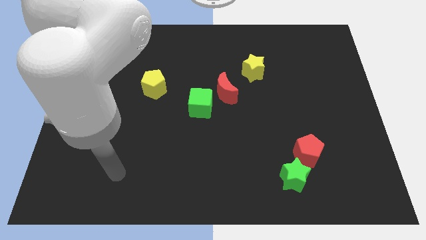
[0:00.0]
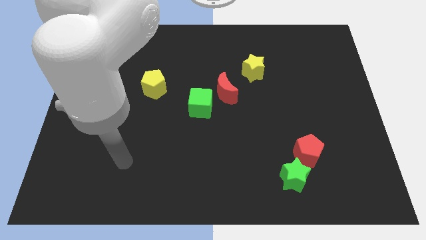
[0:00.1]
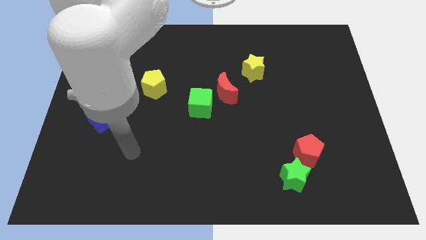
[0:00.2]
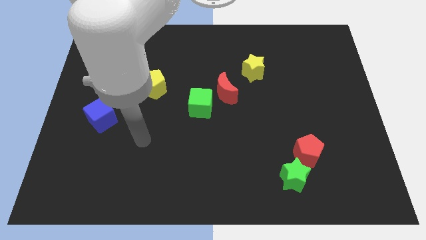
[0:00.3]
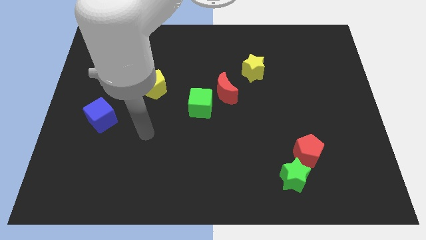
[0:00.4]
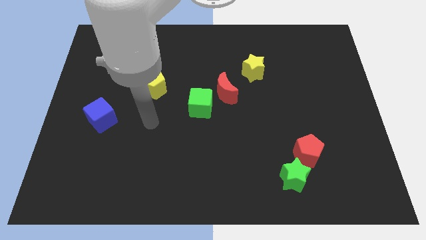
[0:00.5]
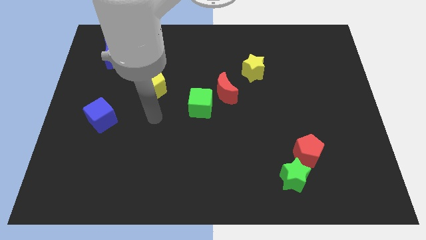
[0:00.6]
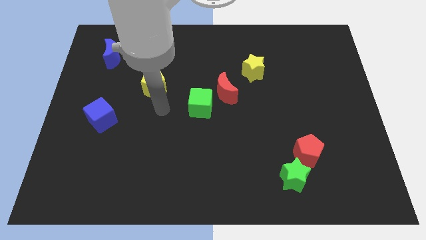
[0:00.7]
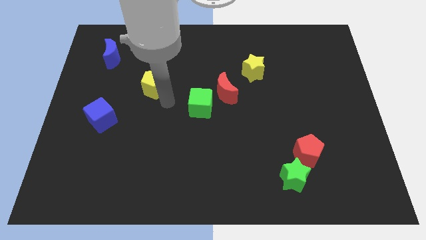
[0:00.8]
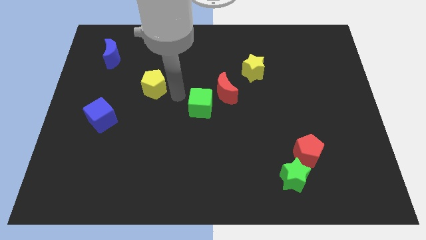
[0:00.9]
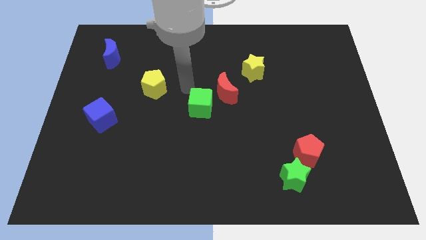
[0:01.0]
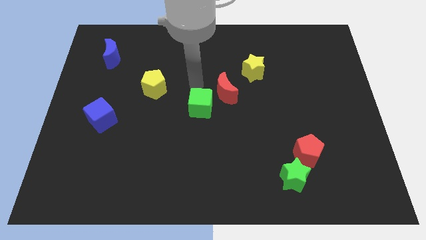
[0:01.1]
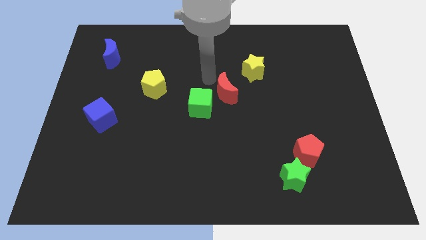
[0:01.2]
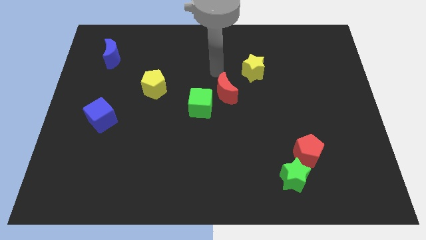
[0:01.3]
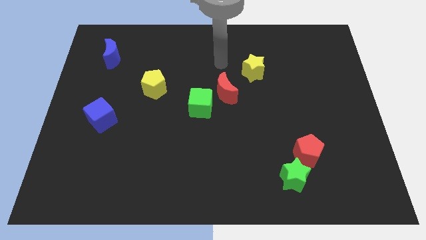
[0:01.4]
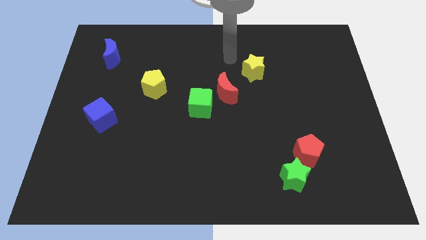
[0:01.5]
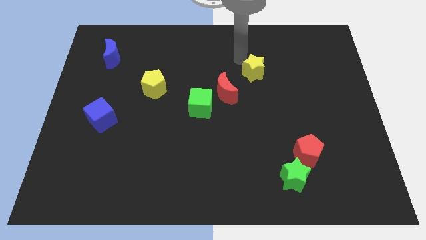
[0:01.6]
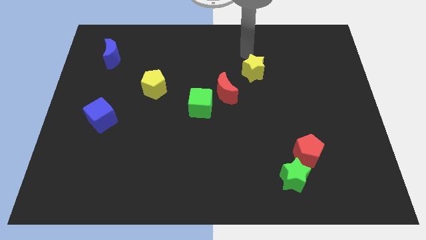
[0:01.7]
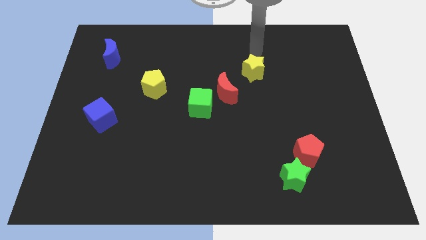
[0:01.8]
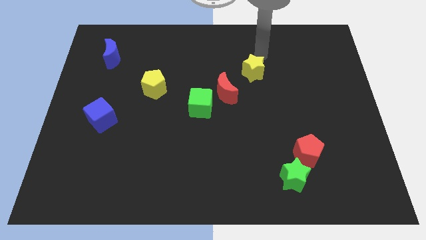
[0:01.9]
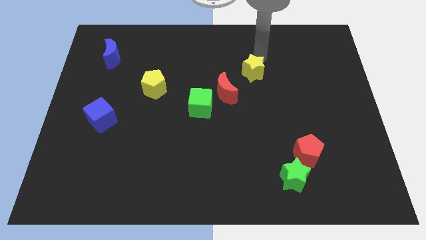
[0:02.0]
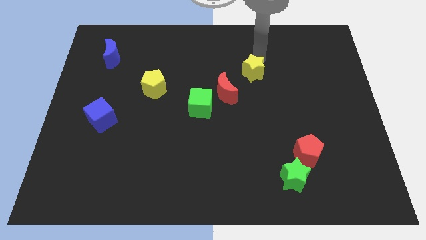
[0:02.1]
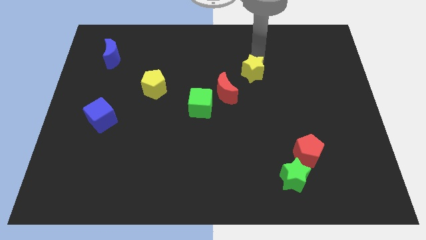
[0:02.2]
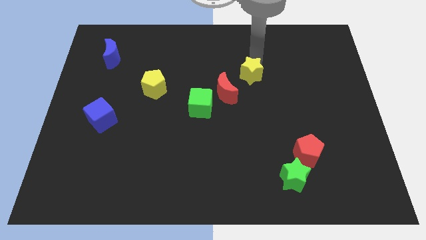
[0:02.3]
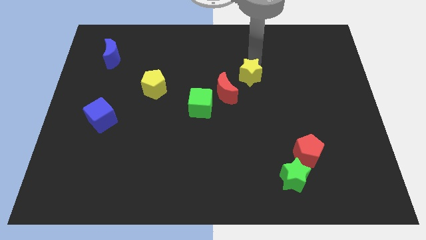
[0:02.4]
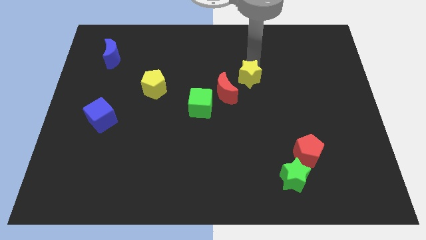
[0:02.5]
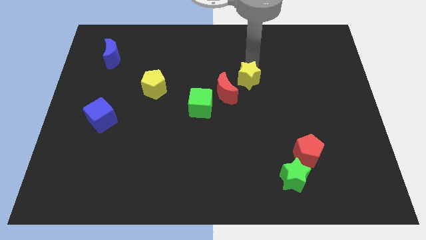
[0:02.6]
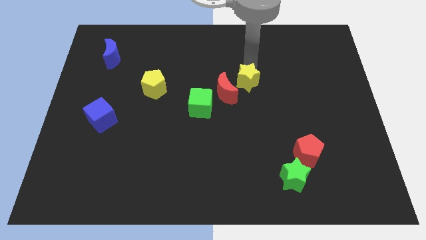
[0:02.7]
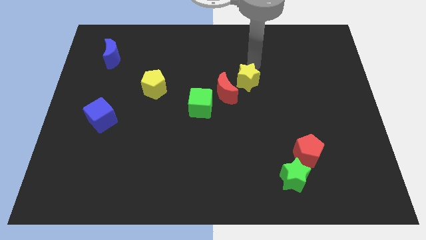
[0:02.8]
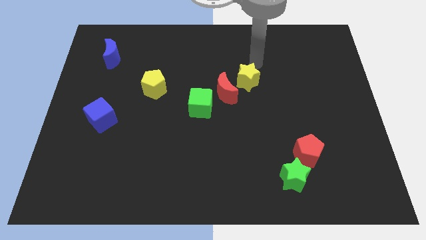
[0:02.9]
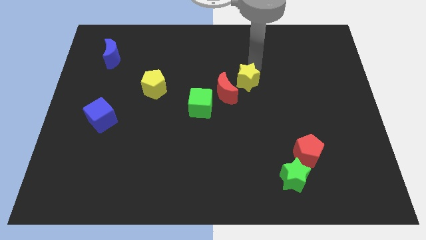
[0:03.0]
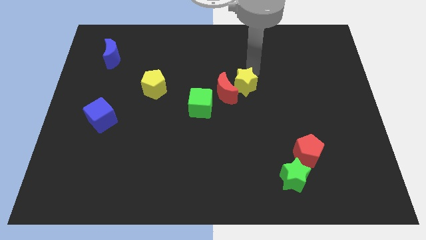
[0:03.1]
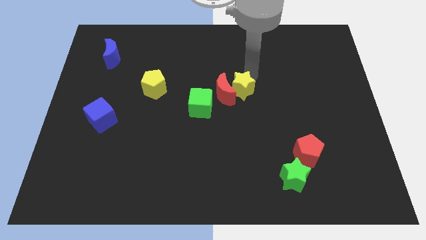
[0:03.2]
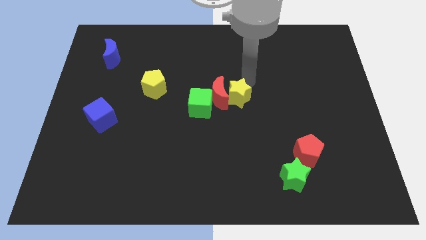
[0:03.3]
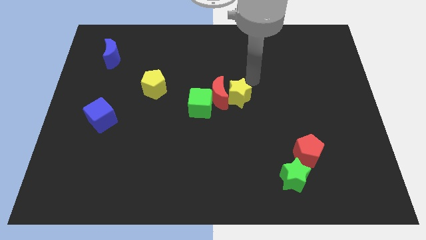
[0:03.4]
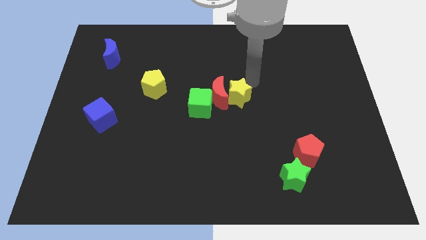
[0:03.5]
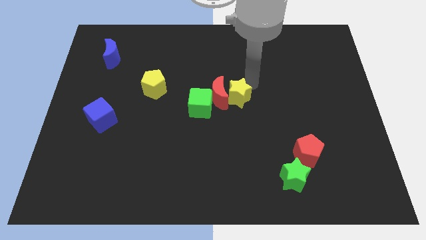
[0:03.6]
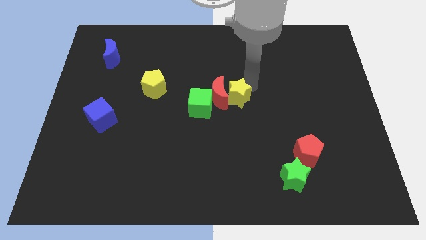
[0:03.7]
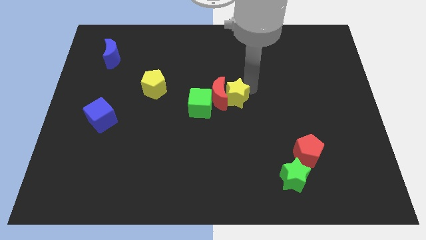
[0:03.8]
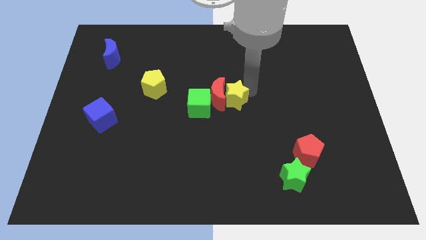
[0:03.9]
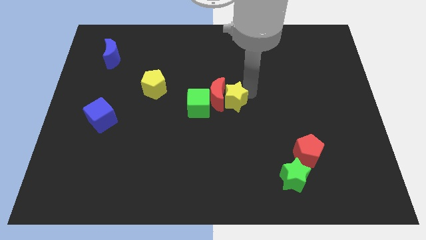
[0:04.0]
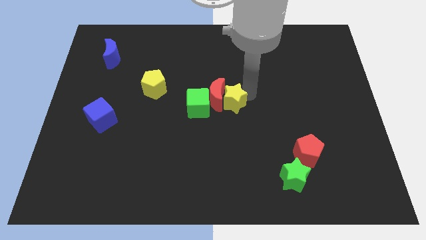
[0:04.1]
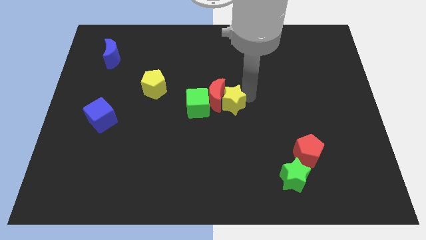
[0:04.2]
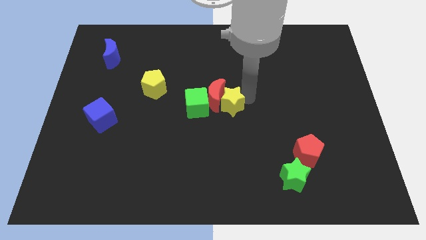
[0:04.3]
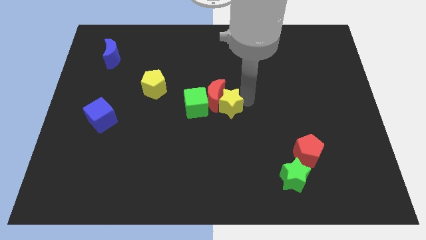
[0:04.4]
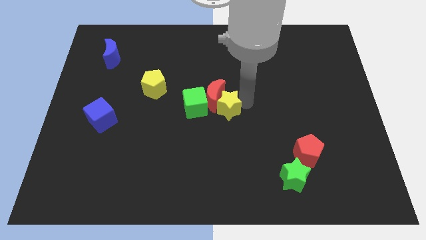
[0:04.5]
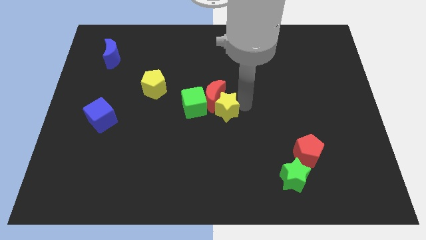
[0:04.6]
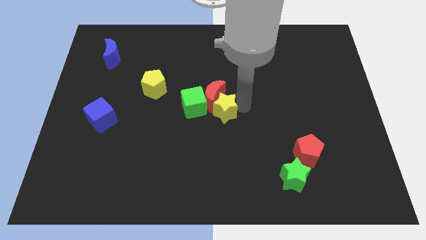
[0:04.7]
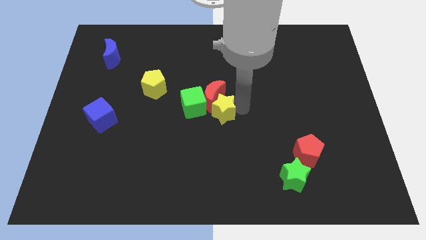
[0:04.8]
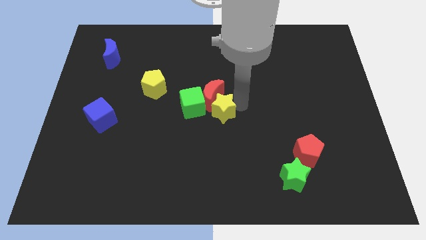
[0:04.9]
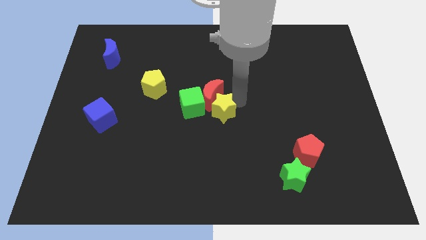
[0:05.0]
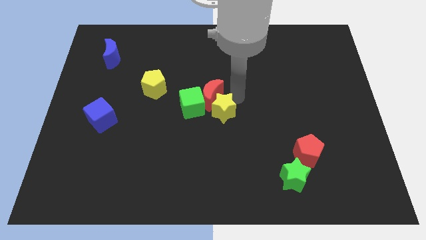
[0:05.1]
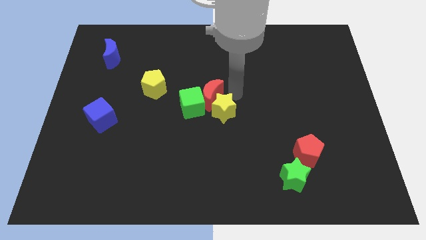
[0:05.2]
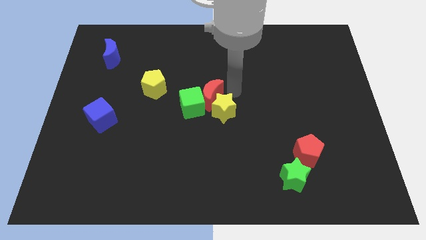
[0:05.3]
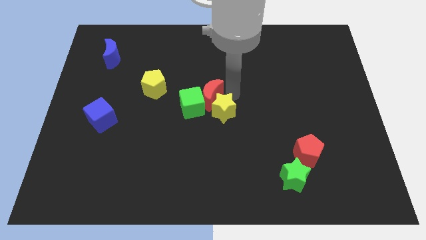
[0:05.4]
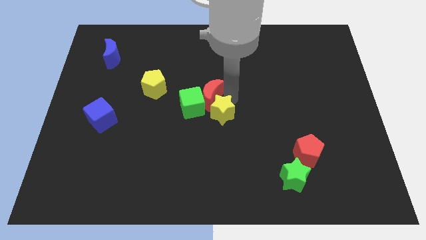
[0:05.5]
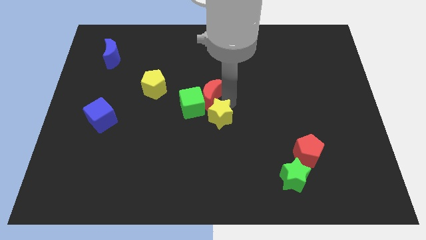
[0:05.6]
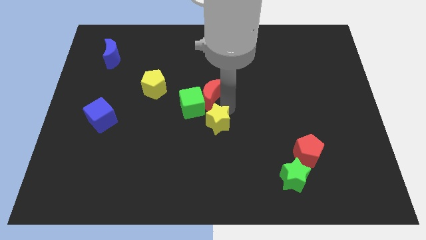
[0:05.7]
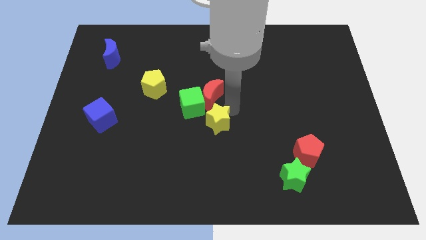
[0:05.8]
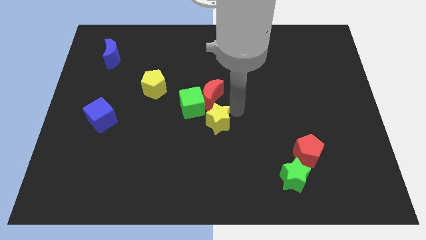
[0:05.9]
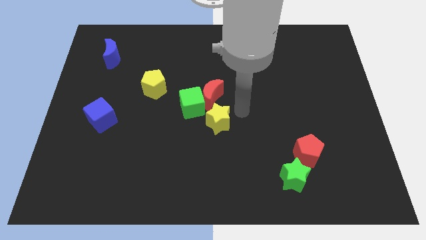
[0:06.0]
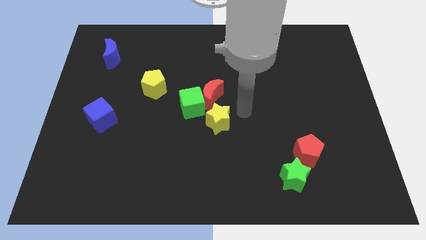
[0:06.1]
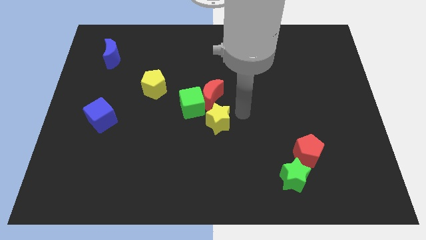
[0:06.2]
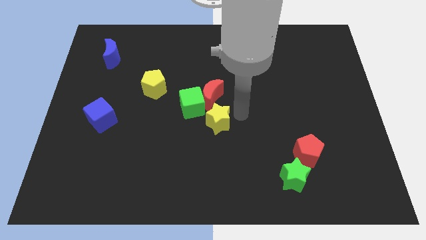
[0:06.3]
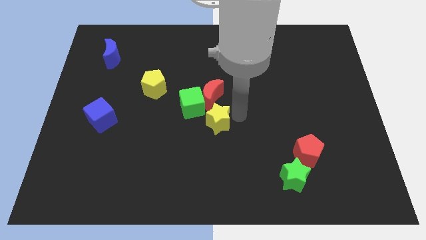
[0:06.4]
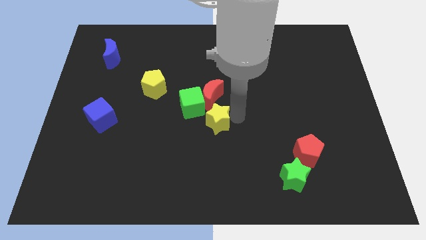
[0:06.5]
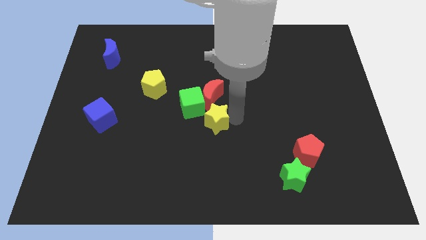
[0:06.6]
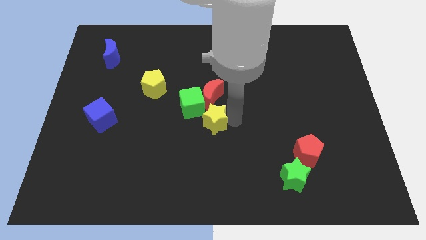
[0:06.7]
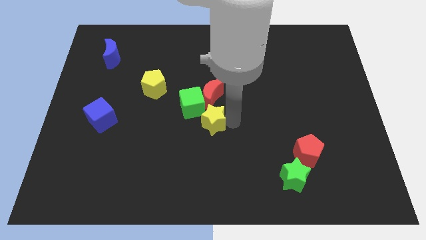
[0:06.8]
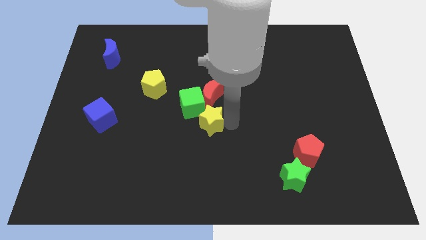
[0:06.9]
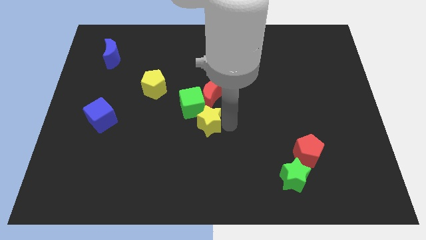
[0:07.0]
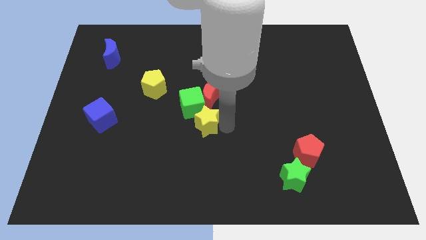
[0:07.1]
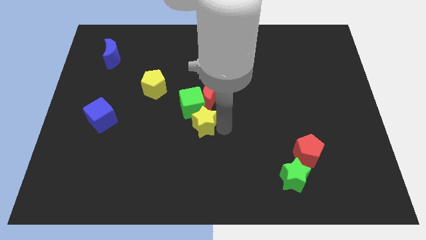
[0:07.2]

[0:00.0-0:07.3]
slide the yellow star diagonally down and to the left of the red moon

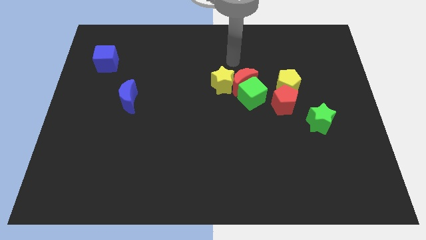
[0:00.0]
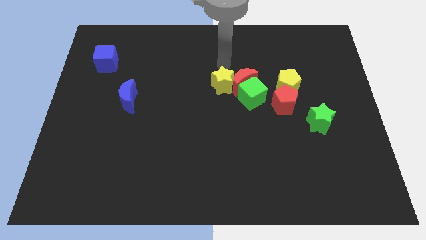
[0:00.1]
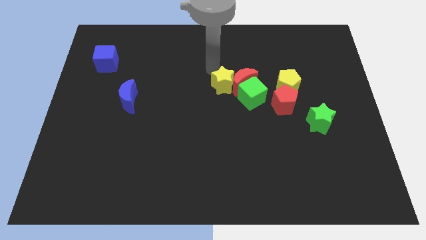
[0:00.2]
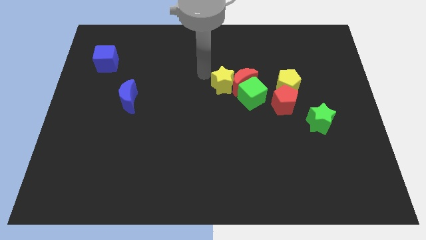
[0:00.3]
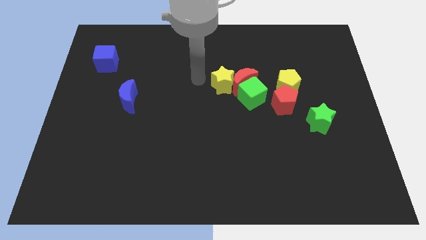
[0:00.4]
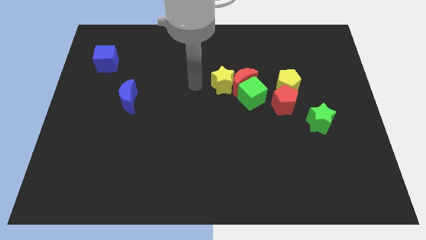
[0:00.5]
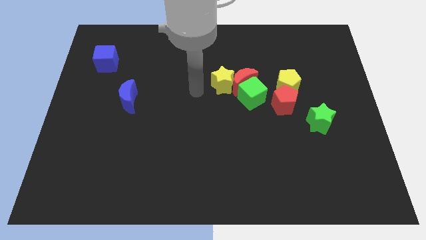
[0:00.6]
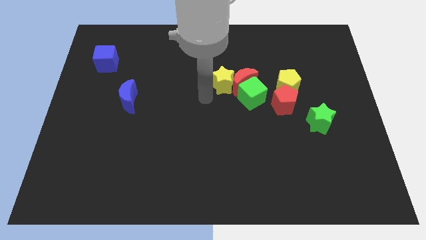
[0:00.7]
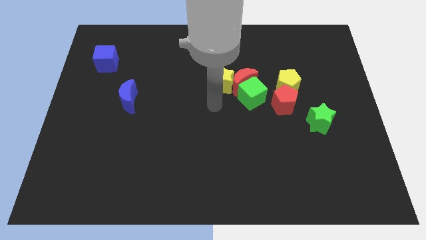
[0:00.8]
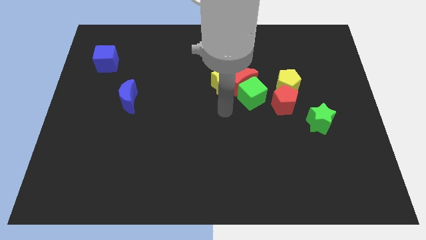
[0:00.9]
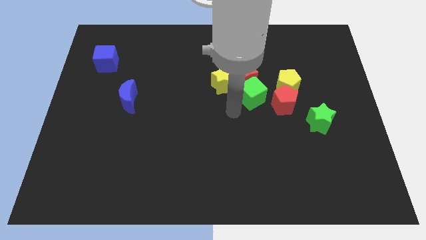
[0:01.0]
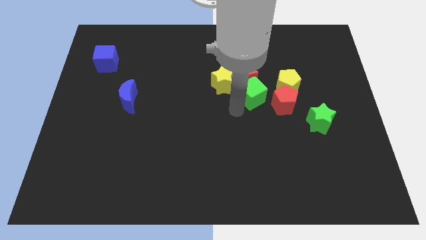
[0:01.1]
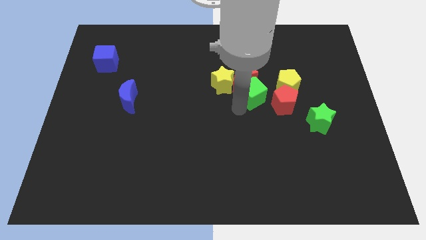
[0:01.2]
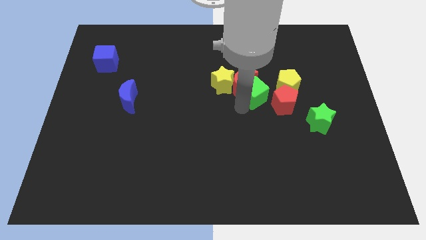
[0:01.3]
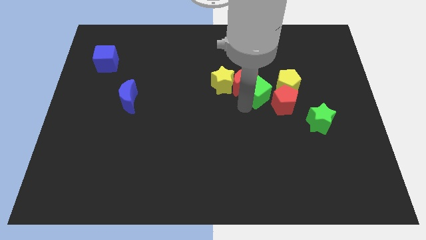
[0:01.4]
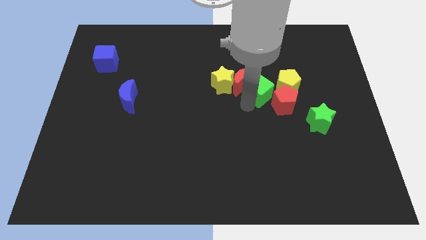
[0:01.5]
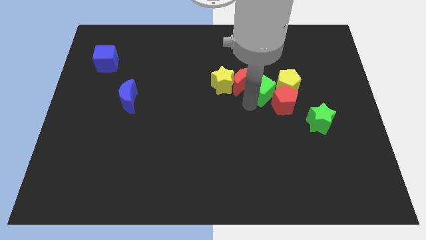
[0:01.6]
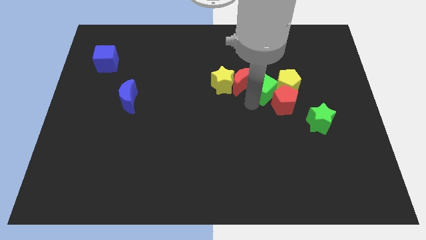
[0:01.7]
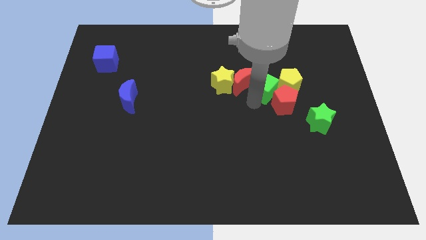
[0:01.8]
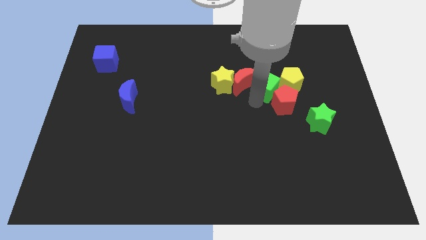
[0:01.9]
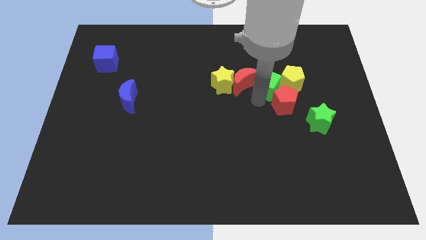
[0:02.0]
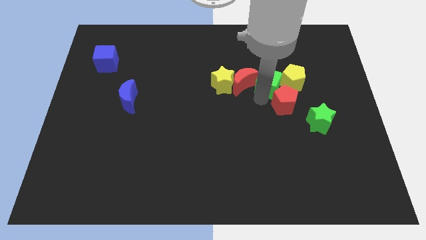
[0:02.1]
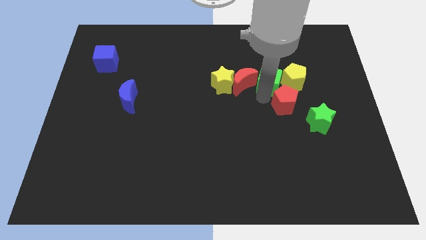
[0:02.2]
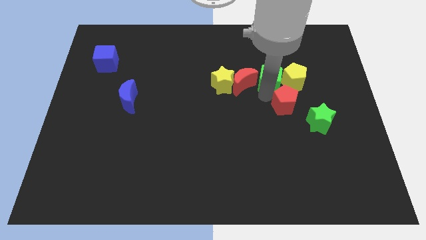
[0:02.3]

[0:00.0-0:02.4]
put the green cube diagonally up and to the left of the yellow pentagon
